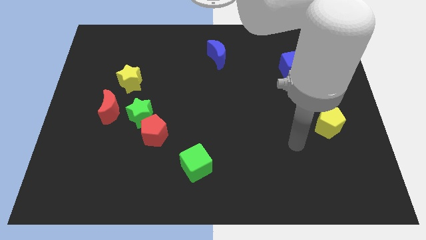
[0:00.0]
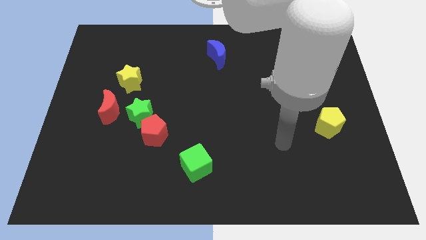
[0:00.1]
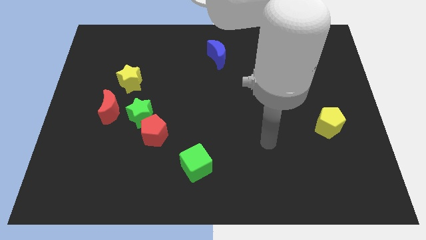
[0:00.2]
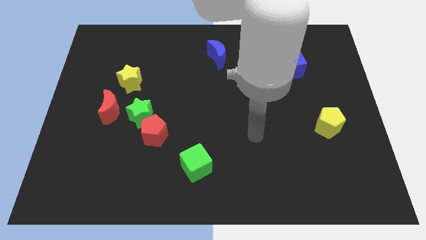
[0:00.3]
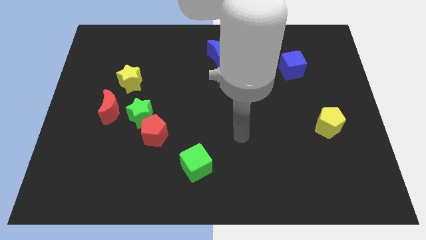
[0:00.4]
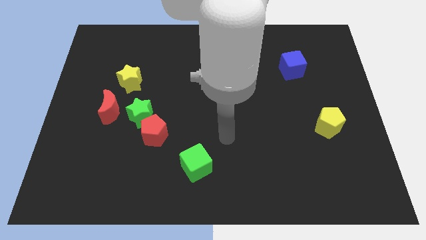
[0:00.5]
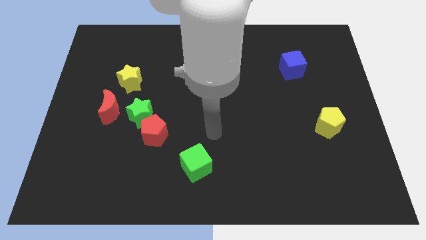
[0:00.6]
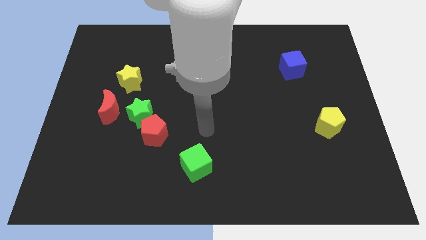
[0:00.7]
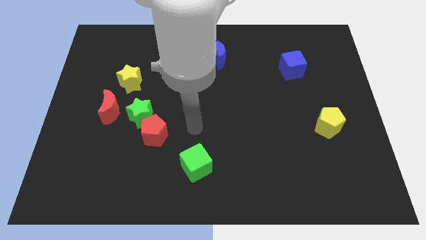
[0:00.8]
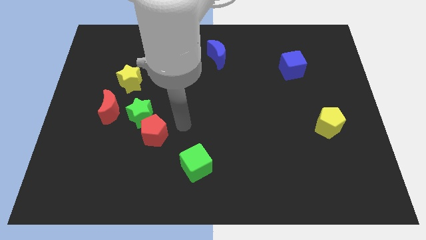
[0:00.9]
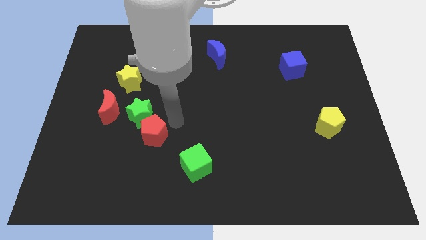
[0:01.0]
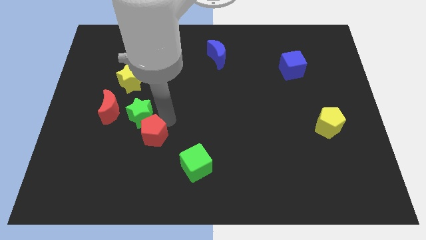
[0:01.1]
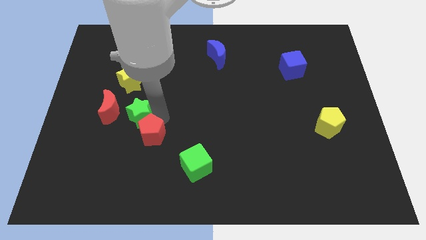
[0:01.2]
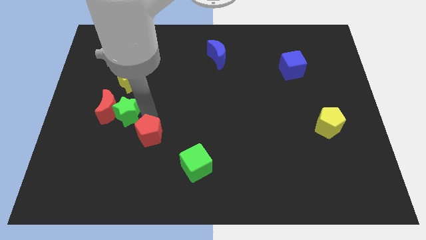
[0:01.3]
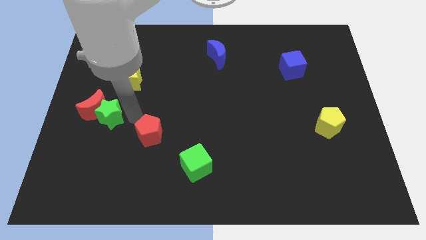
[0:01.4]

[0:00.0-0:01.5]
move the red pentagon away from the green star

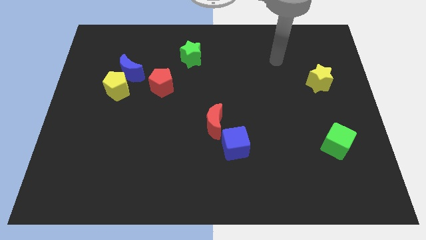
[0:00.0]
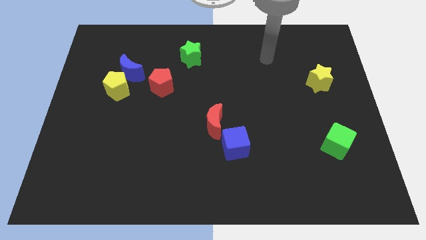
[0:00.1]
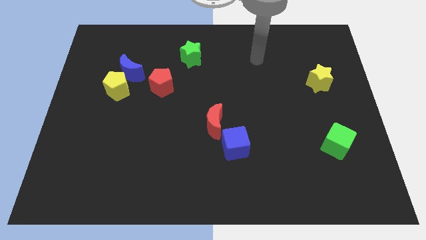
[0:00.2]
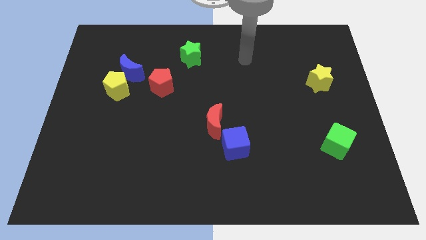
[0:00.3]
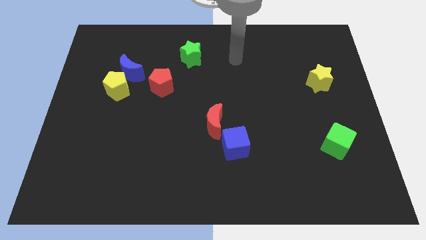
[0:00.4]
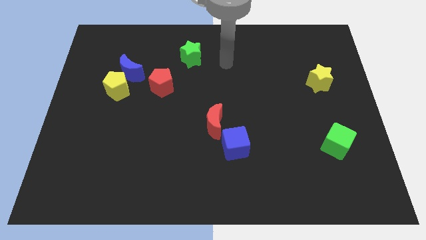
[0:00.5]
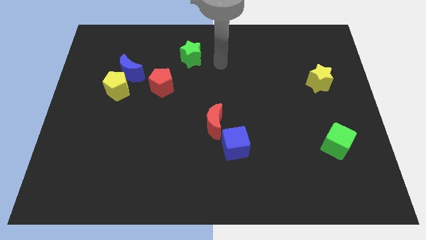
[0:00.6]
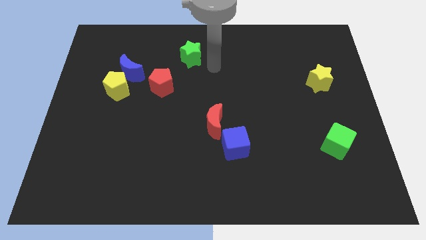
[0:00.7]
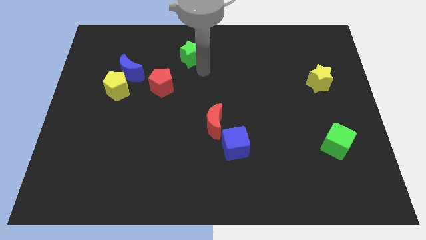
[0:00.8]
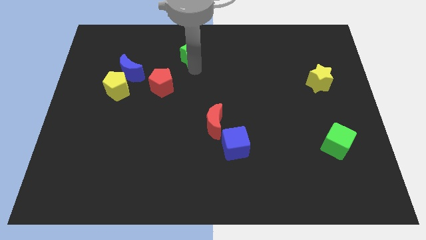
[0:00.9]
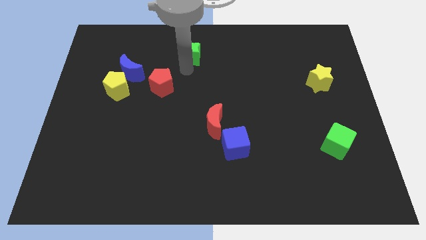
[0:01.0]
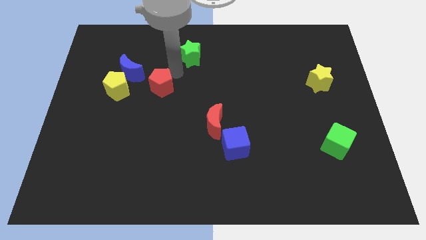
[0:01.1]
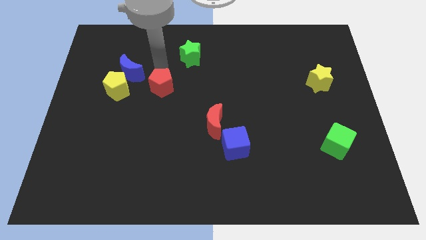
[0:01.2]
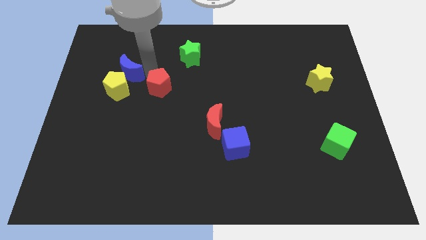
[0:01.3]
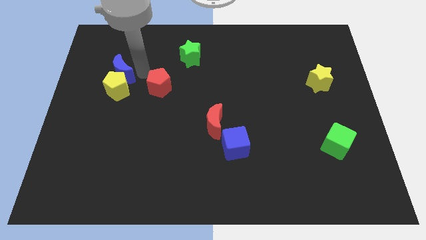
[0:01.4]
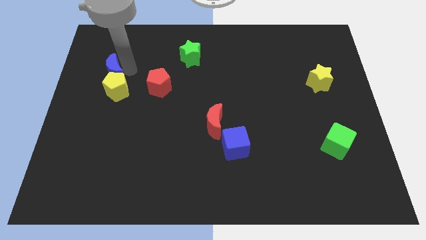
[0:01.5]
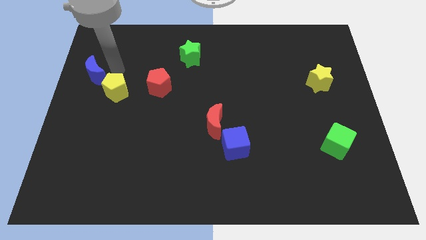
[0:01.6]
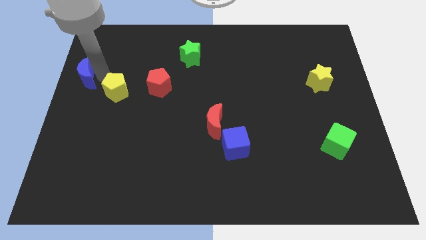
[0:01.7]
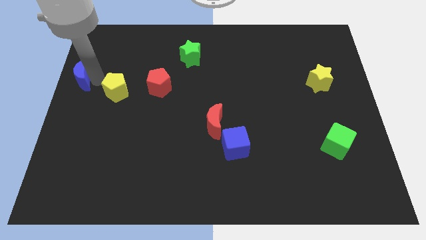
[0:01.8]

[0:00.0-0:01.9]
pull the yellow pentagon apart from the blue moon

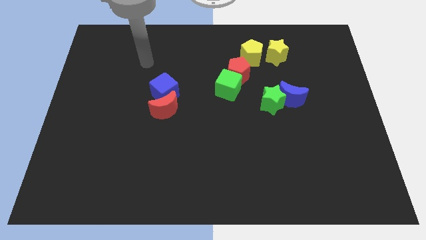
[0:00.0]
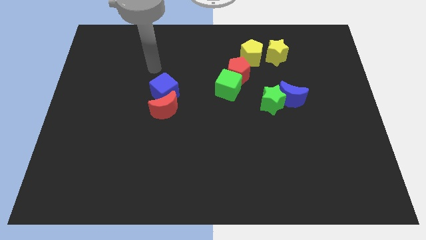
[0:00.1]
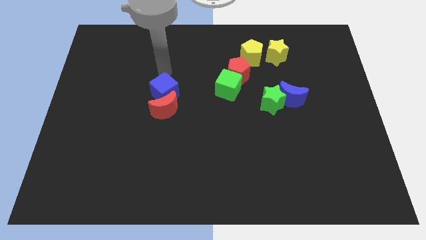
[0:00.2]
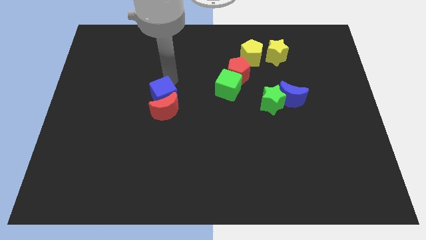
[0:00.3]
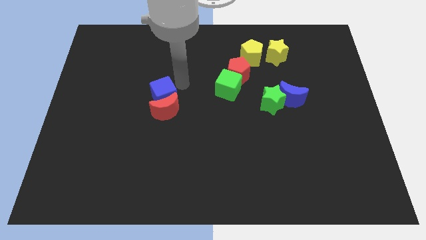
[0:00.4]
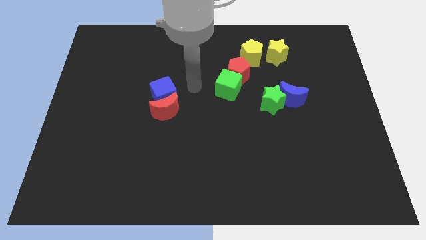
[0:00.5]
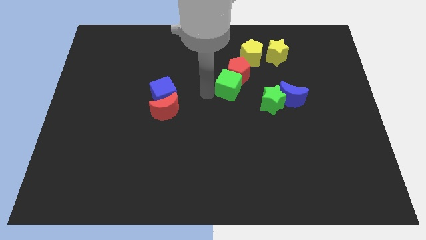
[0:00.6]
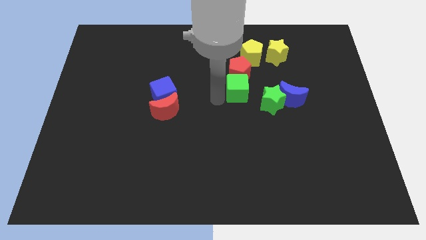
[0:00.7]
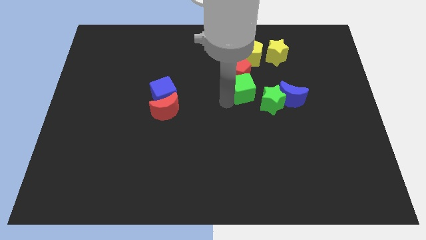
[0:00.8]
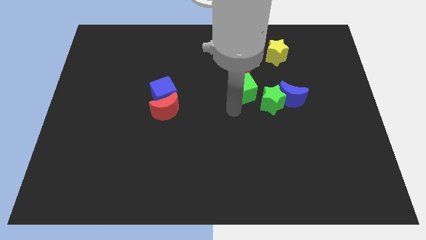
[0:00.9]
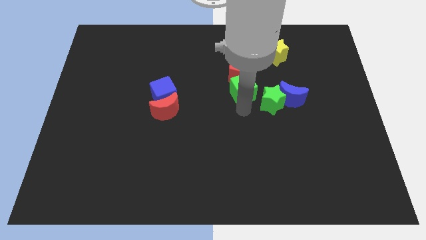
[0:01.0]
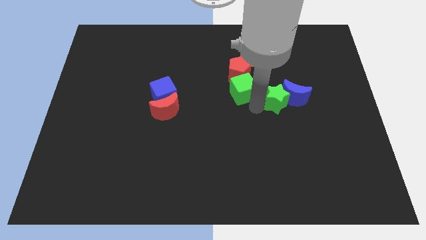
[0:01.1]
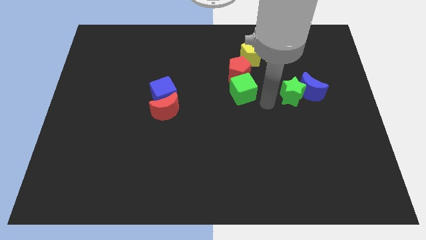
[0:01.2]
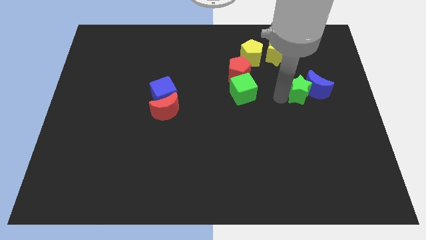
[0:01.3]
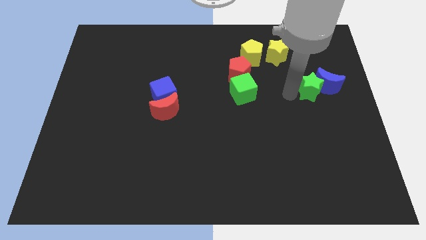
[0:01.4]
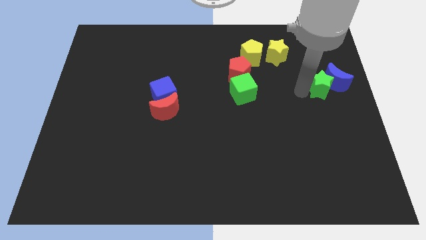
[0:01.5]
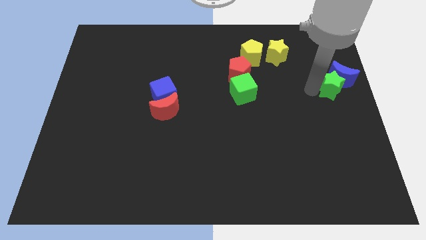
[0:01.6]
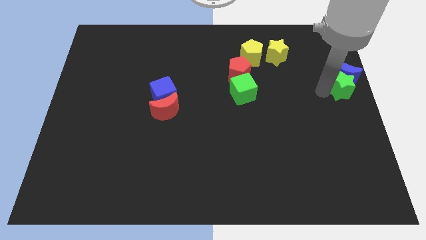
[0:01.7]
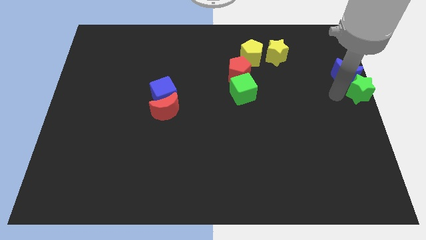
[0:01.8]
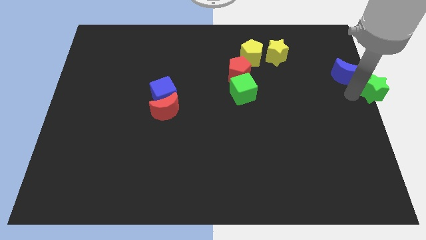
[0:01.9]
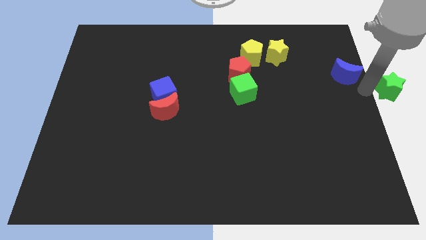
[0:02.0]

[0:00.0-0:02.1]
separate the blue moon from the green star

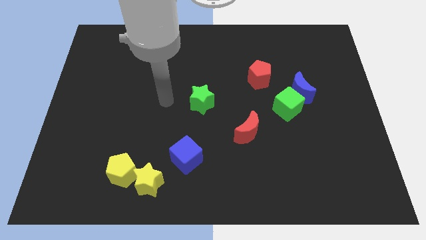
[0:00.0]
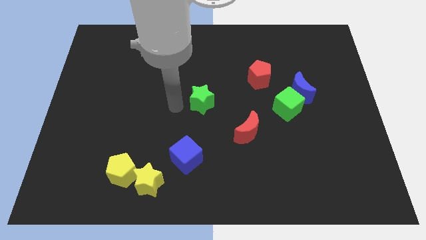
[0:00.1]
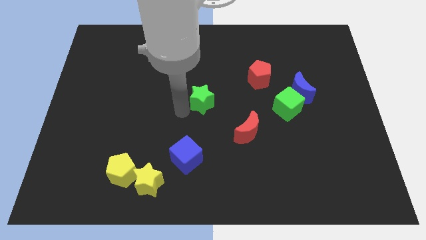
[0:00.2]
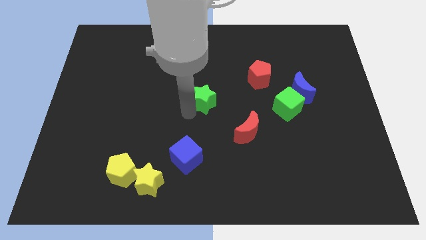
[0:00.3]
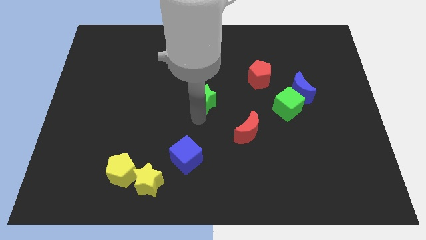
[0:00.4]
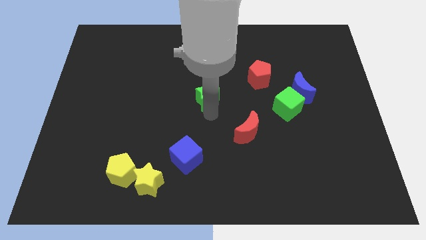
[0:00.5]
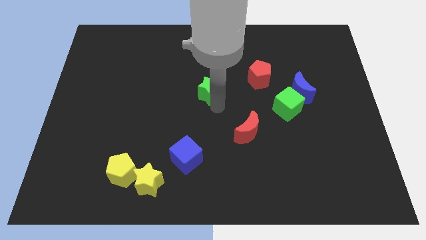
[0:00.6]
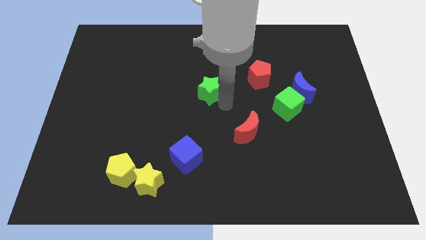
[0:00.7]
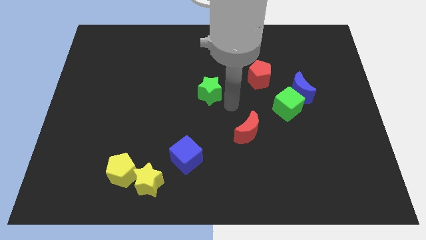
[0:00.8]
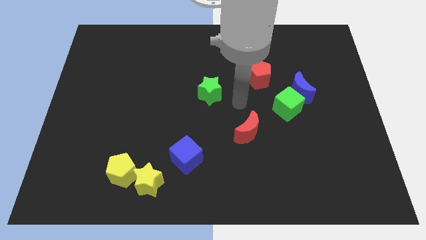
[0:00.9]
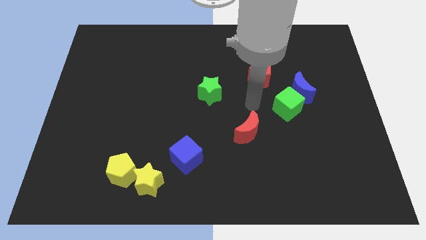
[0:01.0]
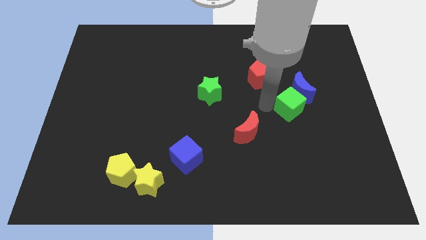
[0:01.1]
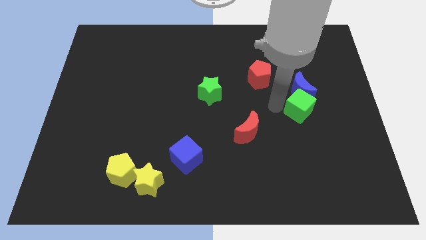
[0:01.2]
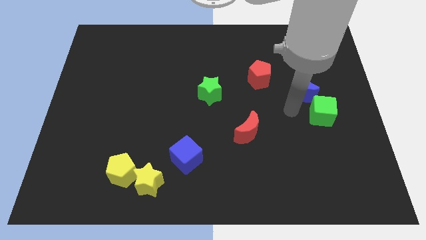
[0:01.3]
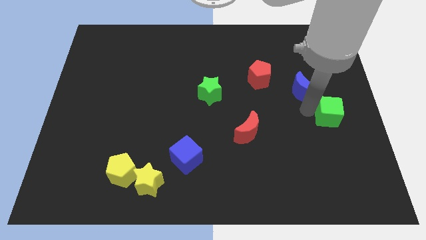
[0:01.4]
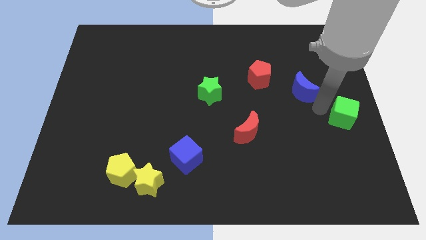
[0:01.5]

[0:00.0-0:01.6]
separate the blue moon from the green cube

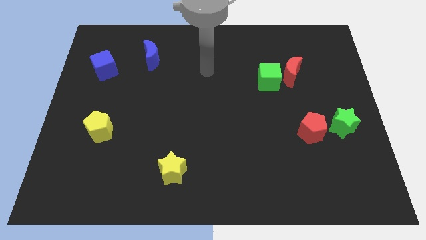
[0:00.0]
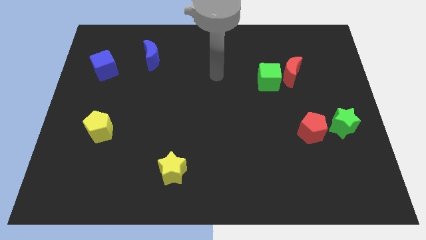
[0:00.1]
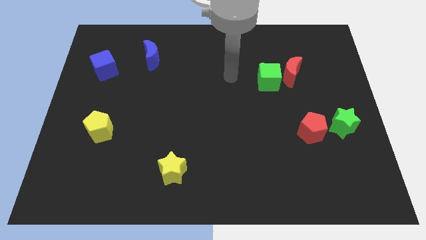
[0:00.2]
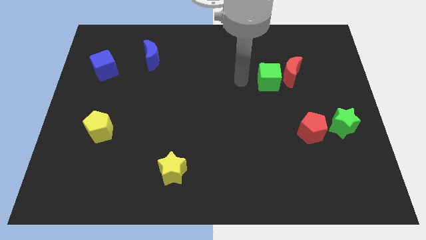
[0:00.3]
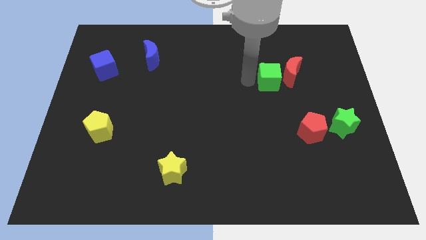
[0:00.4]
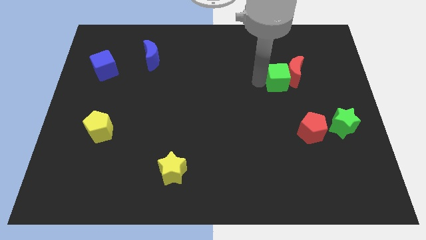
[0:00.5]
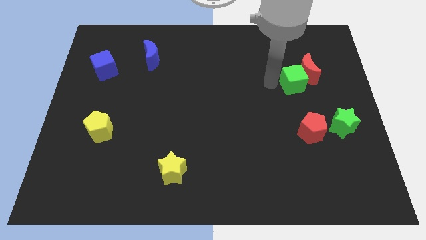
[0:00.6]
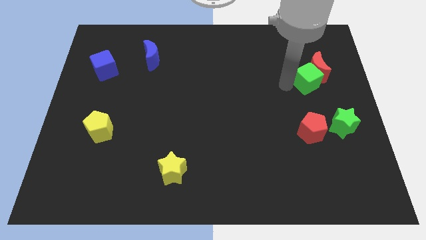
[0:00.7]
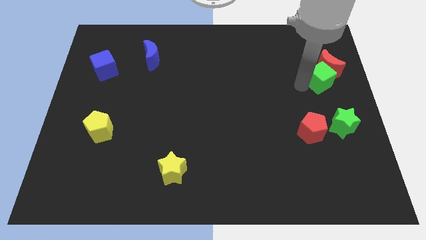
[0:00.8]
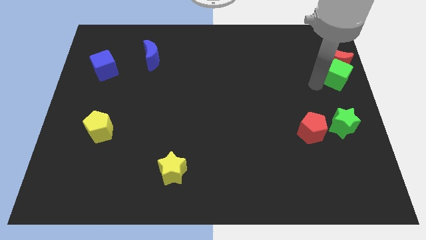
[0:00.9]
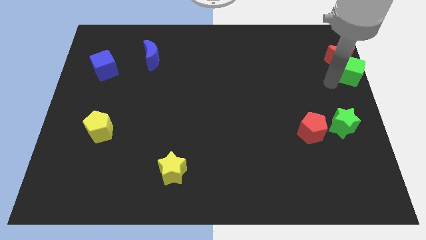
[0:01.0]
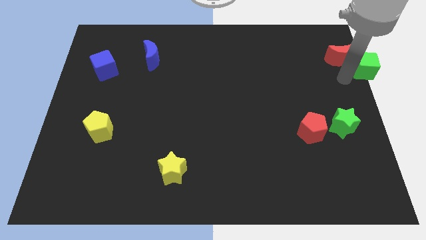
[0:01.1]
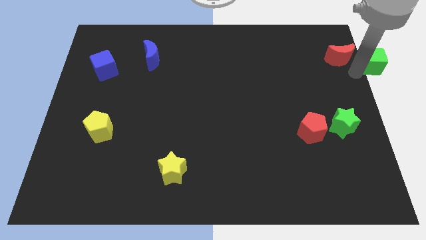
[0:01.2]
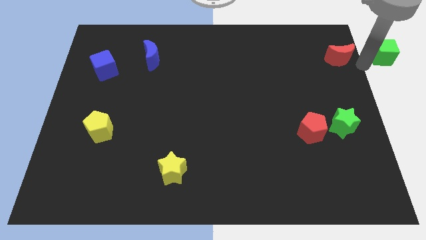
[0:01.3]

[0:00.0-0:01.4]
separate the red moon from the green cube

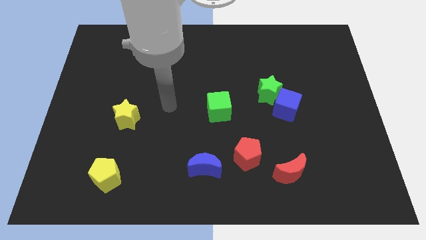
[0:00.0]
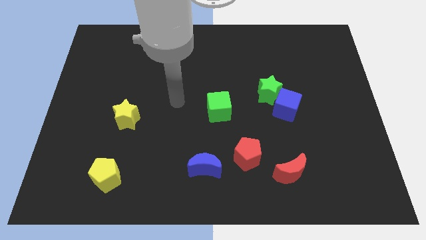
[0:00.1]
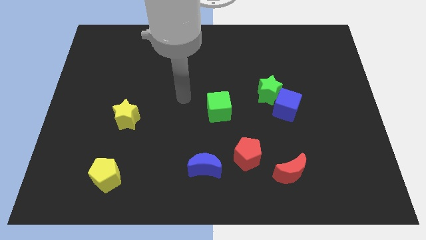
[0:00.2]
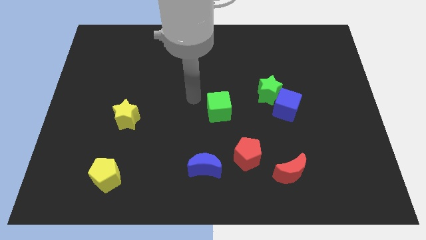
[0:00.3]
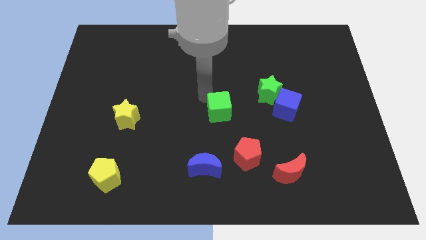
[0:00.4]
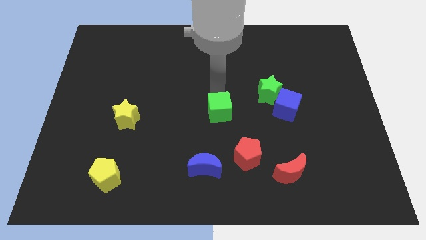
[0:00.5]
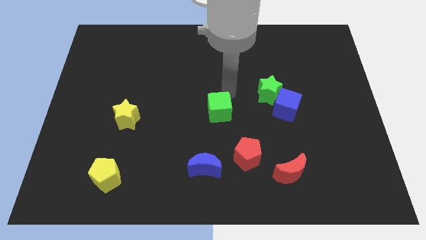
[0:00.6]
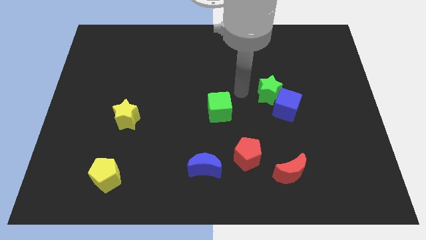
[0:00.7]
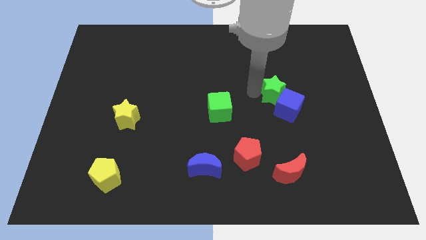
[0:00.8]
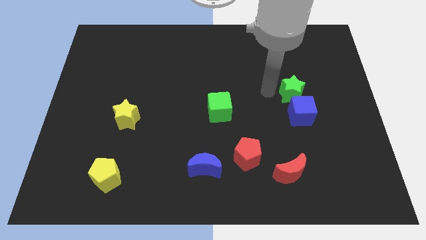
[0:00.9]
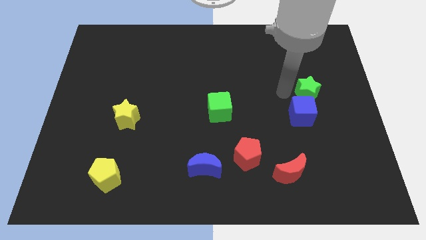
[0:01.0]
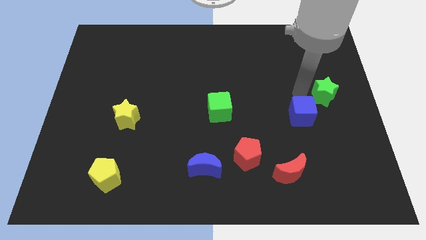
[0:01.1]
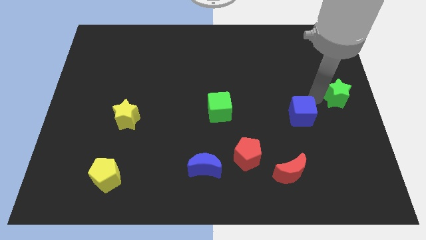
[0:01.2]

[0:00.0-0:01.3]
pull the blue cube apart from the green star
